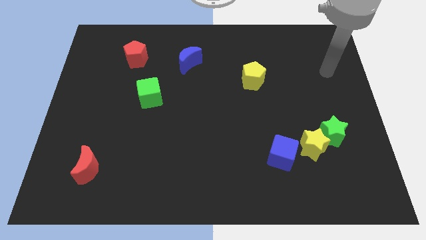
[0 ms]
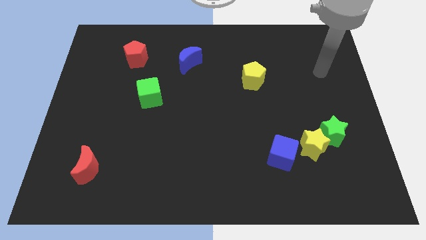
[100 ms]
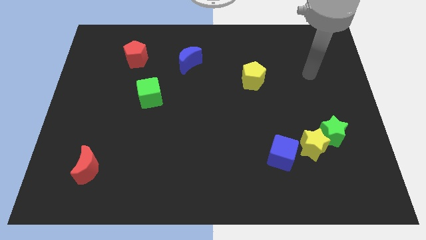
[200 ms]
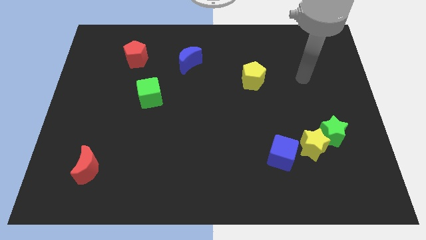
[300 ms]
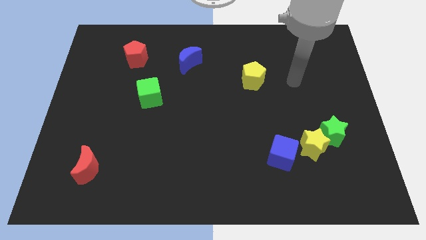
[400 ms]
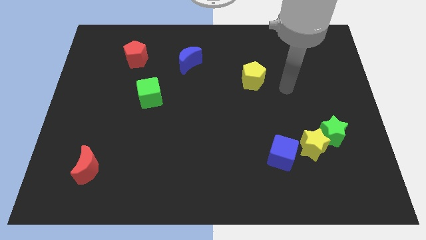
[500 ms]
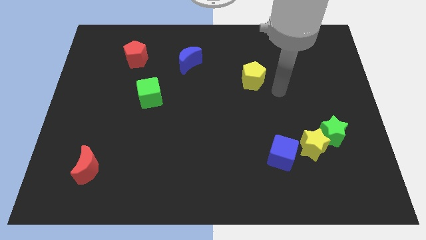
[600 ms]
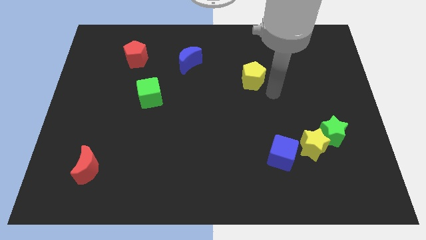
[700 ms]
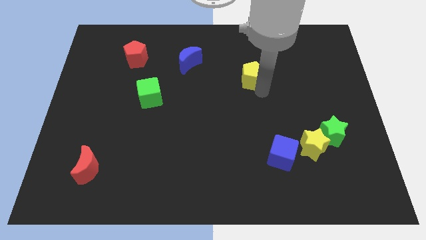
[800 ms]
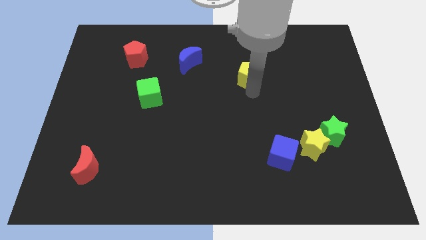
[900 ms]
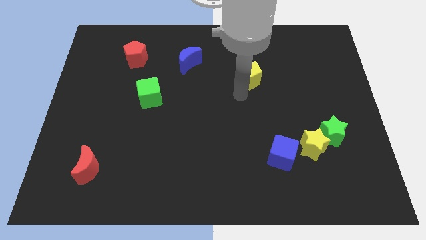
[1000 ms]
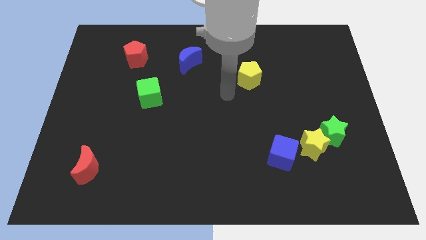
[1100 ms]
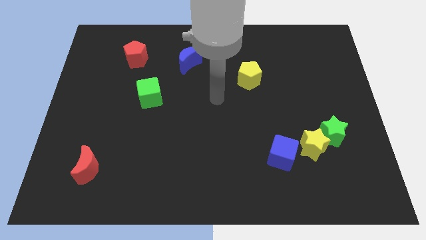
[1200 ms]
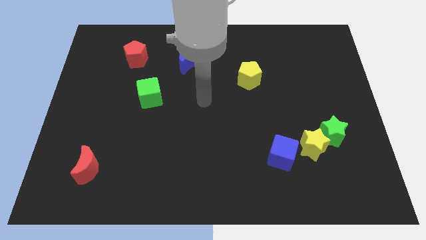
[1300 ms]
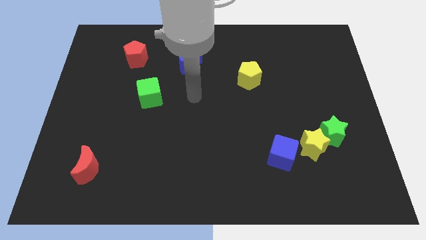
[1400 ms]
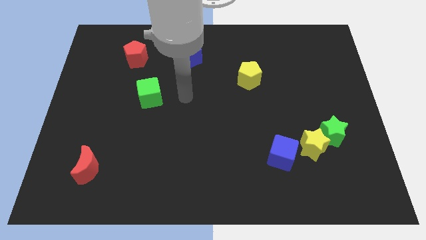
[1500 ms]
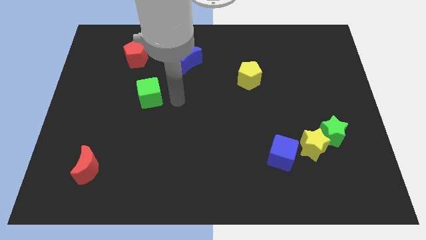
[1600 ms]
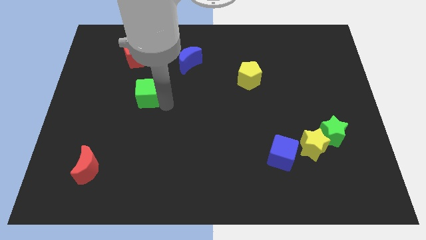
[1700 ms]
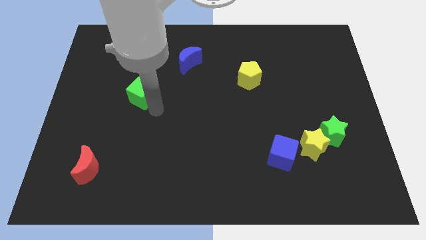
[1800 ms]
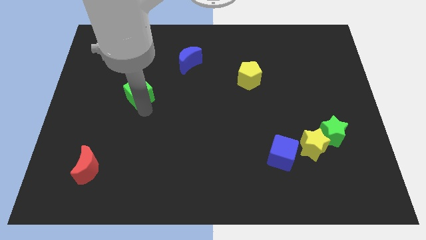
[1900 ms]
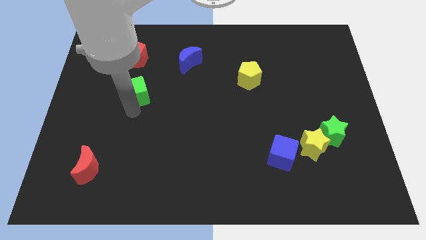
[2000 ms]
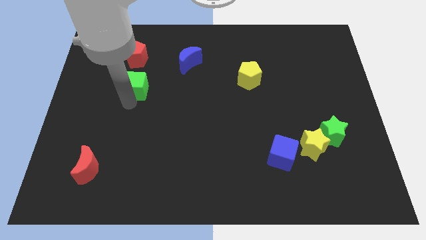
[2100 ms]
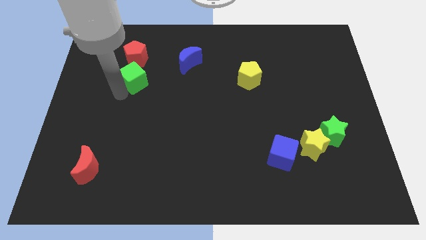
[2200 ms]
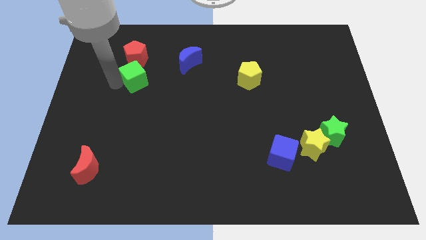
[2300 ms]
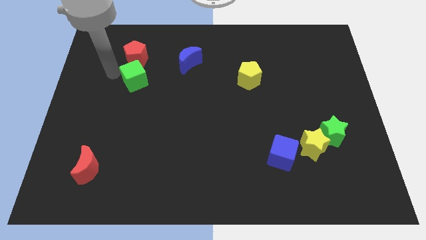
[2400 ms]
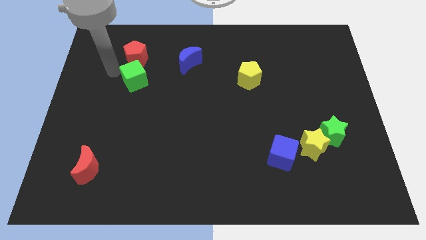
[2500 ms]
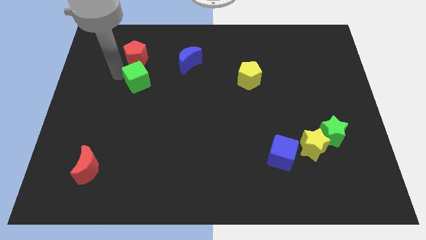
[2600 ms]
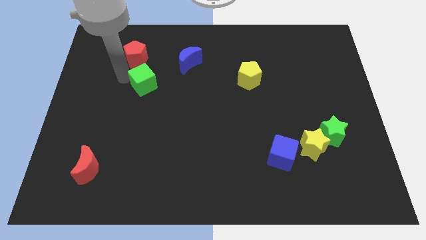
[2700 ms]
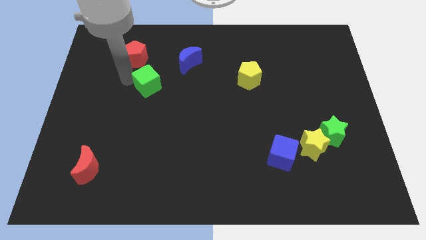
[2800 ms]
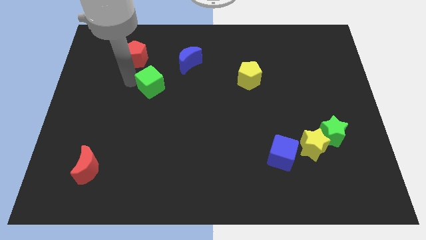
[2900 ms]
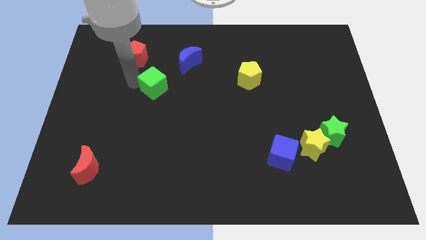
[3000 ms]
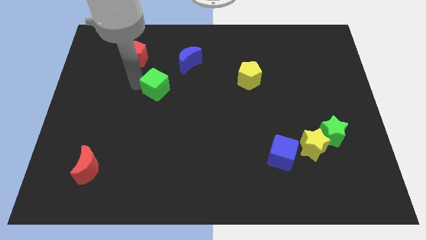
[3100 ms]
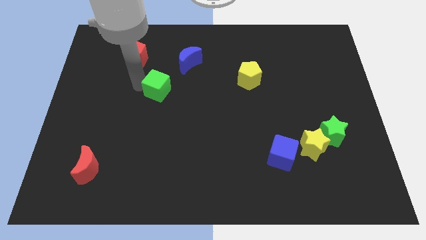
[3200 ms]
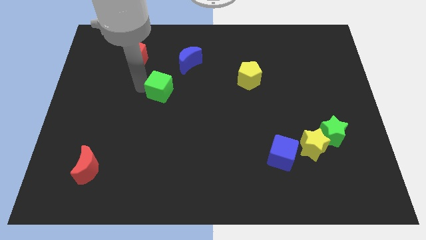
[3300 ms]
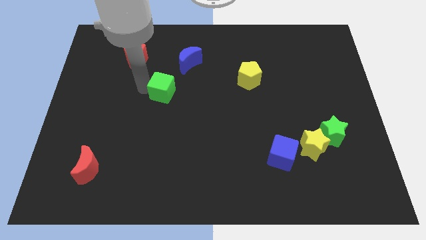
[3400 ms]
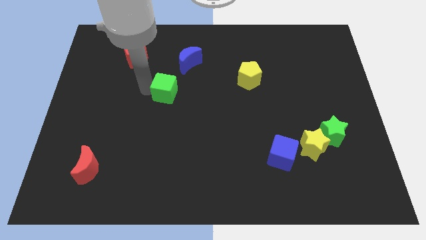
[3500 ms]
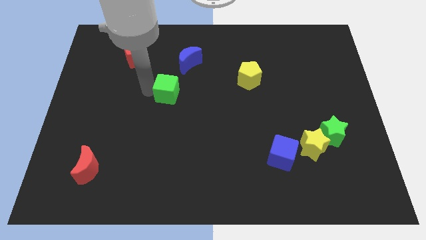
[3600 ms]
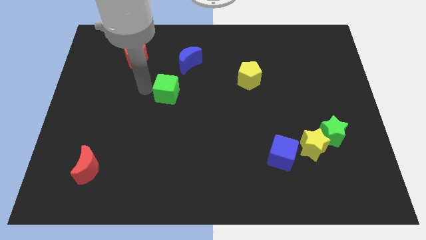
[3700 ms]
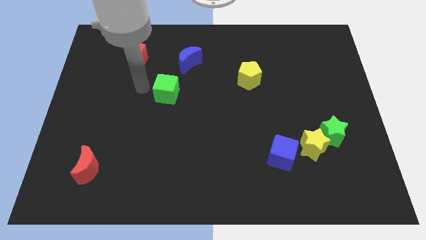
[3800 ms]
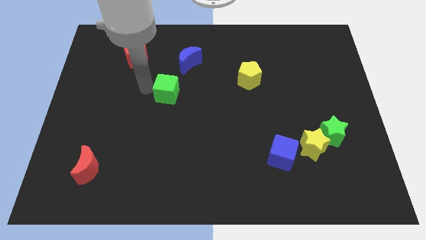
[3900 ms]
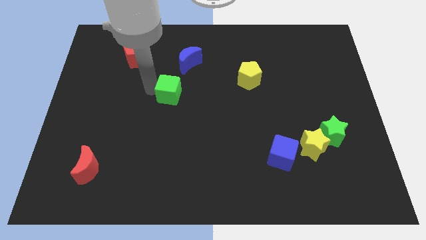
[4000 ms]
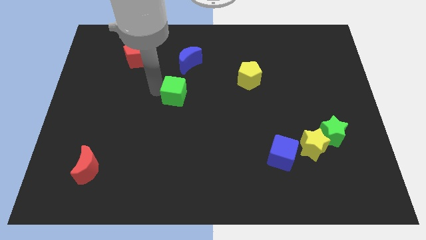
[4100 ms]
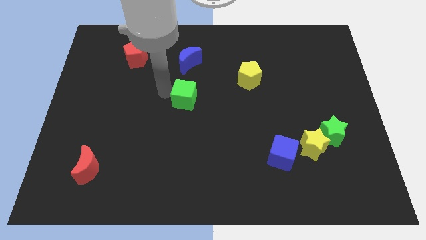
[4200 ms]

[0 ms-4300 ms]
push the green cube right slightly

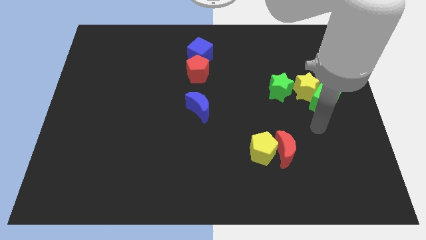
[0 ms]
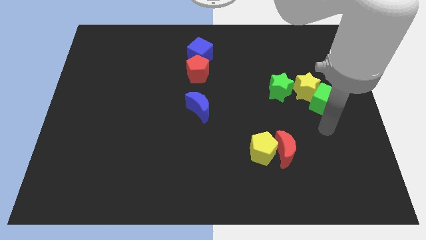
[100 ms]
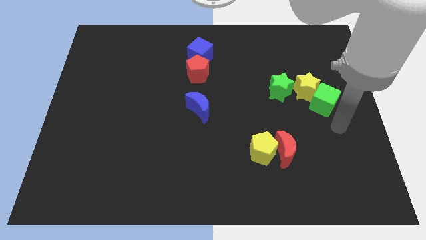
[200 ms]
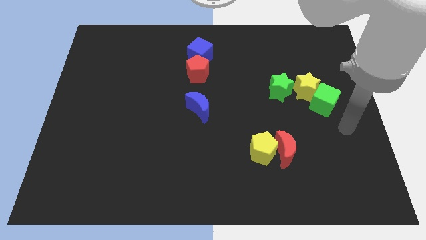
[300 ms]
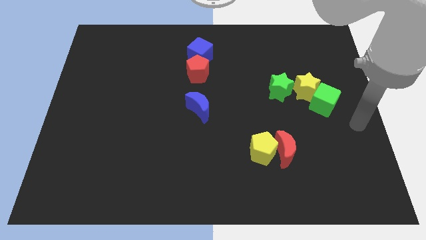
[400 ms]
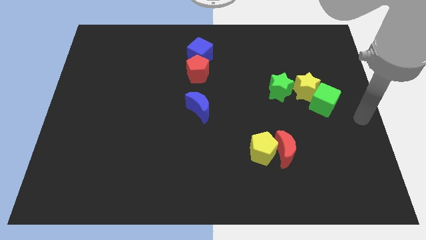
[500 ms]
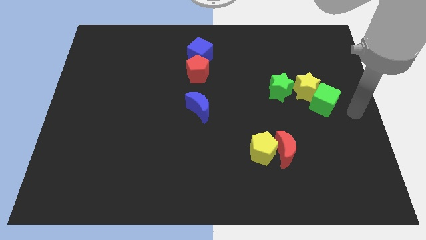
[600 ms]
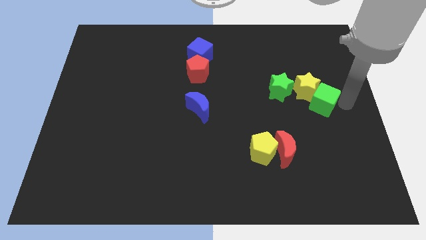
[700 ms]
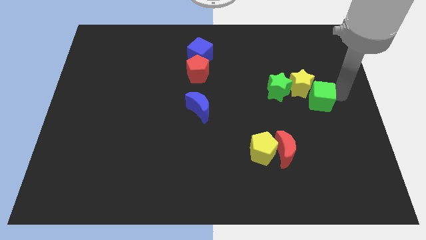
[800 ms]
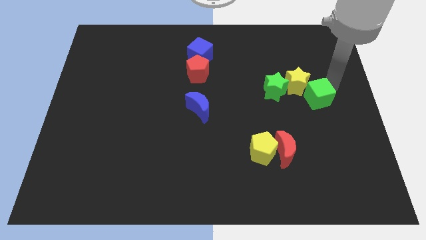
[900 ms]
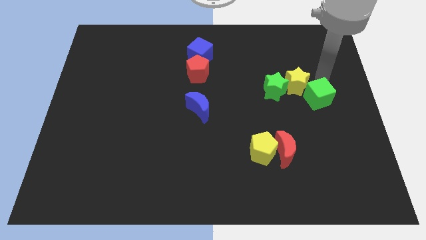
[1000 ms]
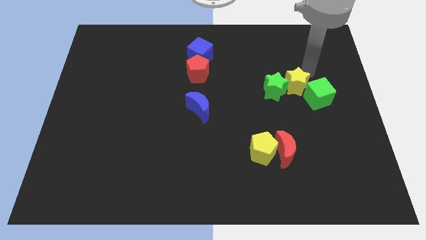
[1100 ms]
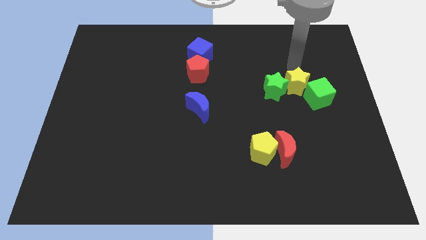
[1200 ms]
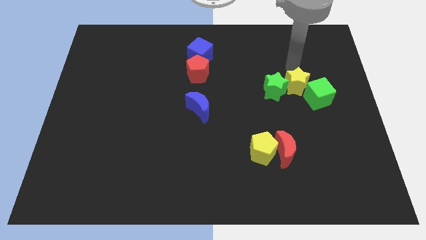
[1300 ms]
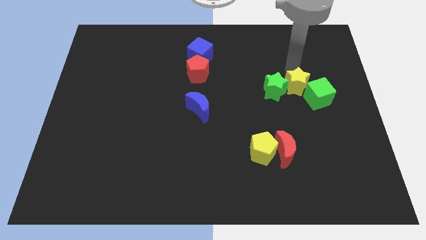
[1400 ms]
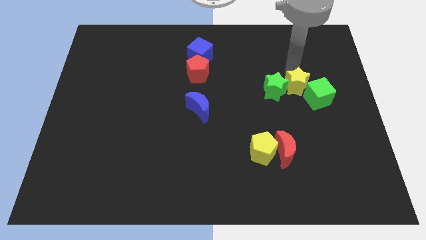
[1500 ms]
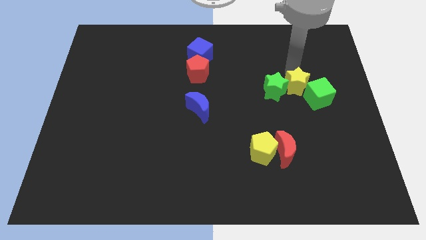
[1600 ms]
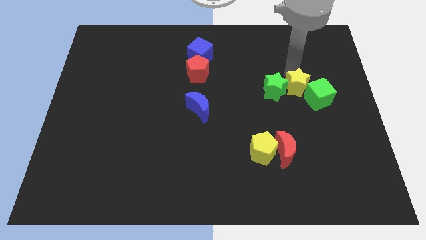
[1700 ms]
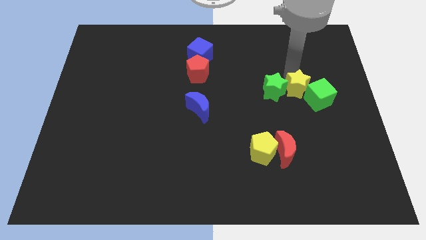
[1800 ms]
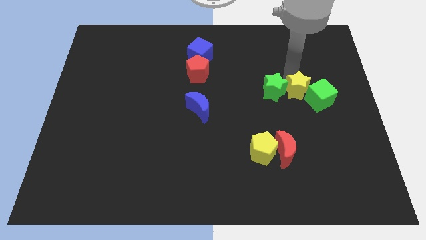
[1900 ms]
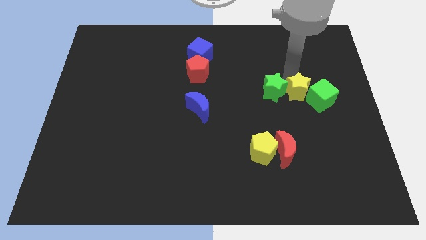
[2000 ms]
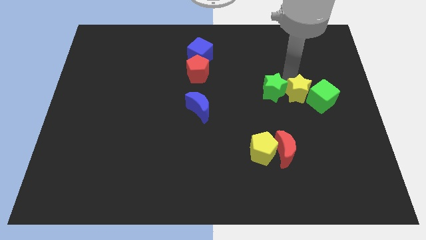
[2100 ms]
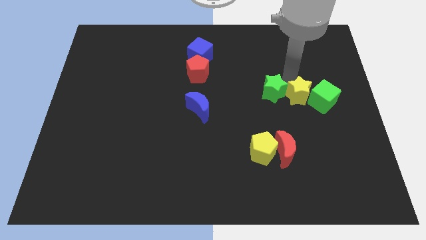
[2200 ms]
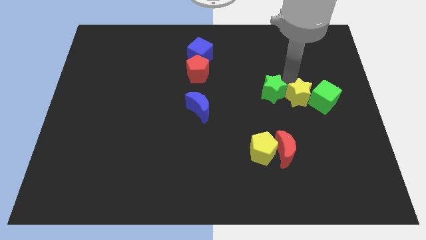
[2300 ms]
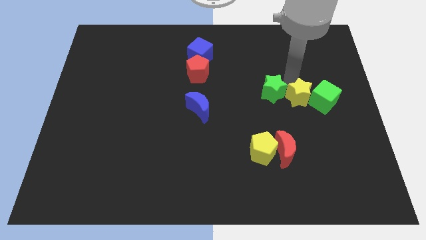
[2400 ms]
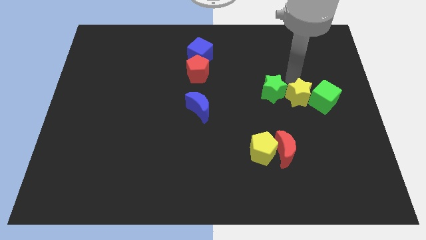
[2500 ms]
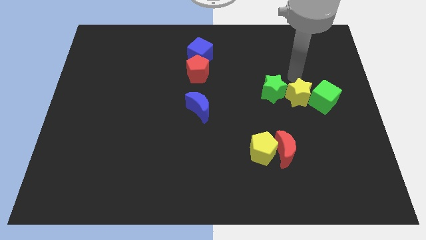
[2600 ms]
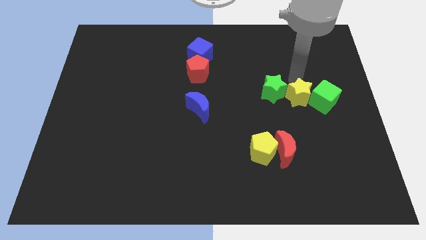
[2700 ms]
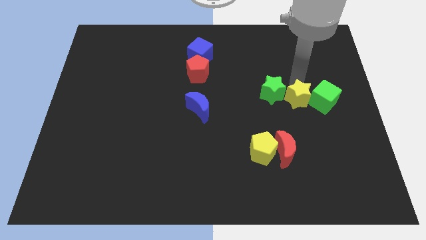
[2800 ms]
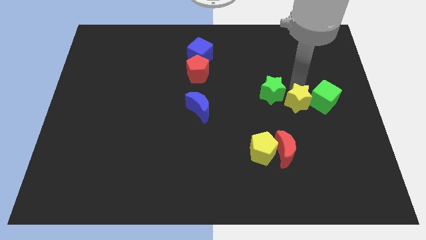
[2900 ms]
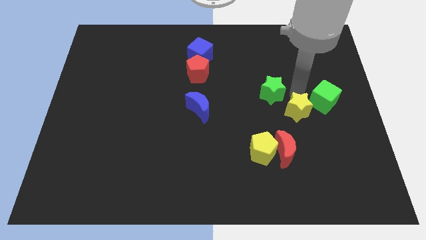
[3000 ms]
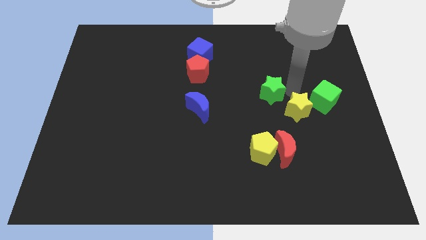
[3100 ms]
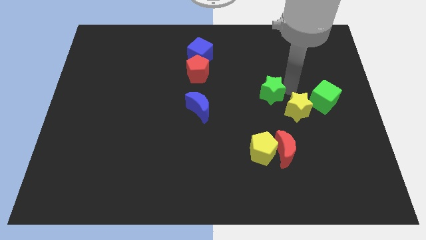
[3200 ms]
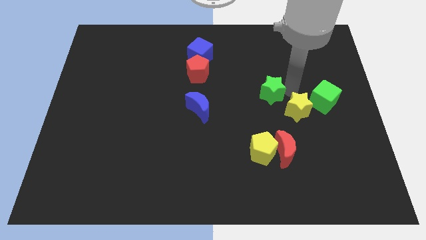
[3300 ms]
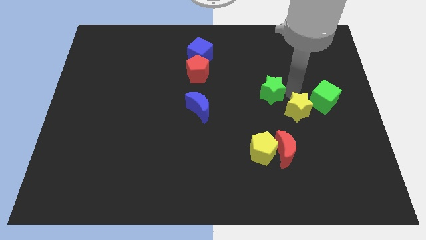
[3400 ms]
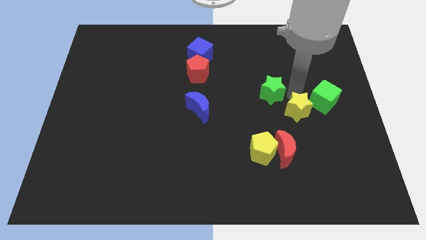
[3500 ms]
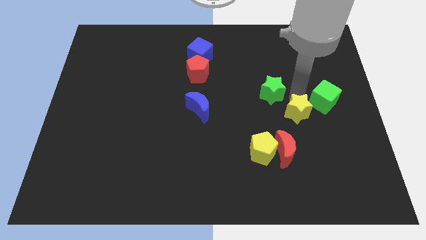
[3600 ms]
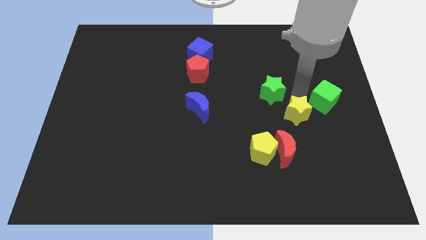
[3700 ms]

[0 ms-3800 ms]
slightly move the yellow star down
